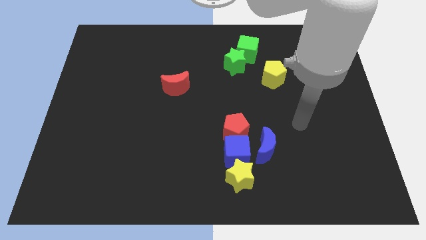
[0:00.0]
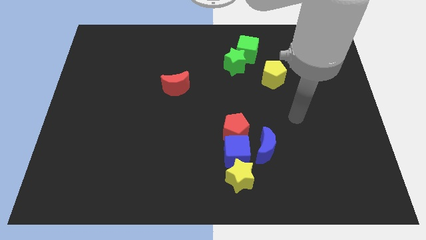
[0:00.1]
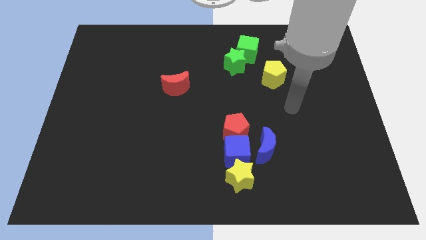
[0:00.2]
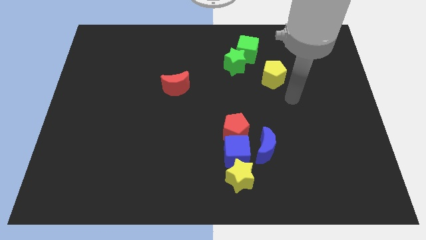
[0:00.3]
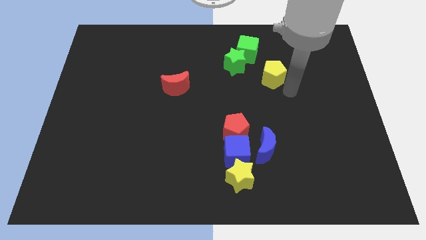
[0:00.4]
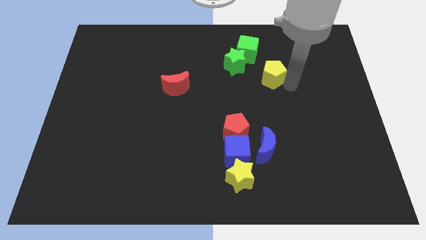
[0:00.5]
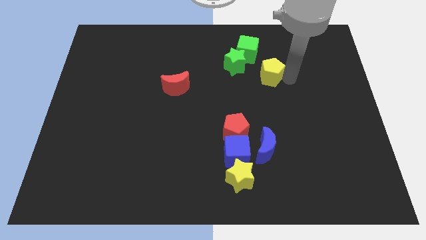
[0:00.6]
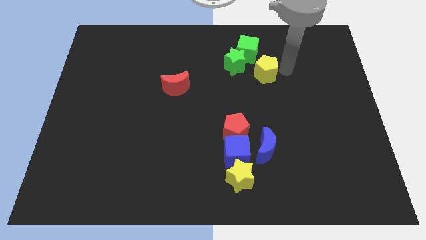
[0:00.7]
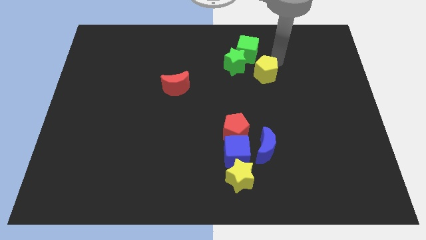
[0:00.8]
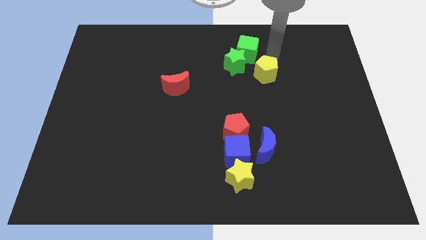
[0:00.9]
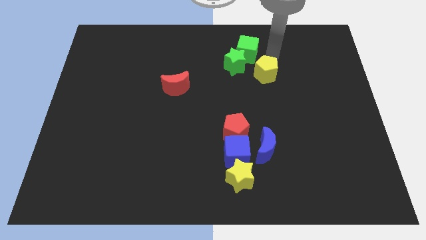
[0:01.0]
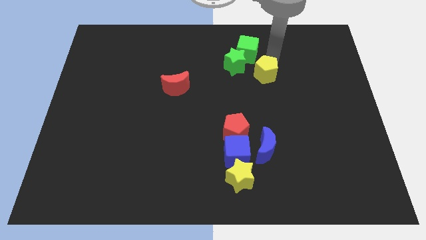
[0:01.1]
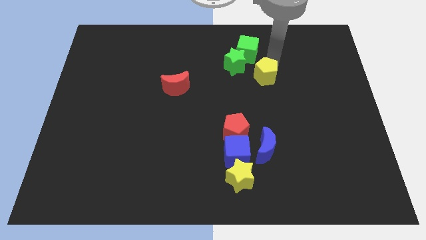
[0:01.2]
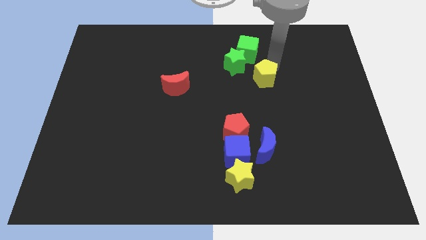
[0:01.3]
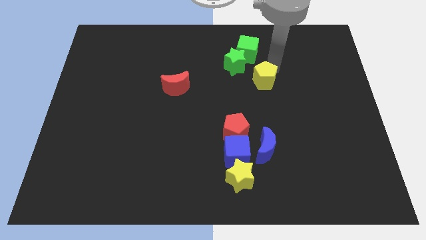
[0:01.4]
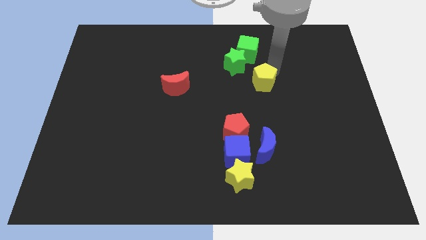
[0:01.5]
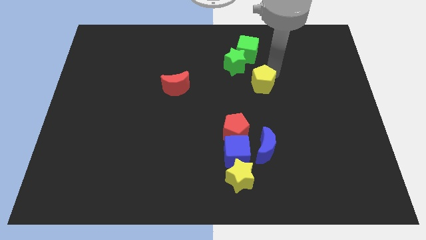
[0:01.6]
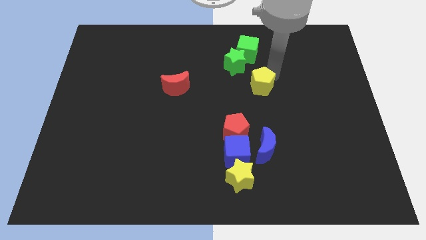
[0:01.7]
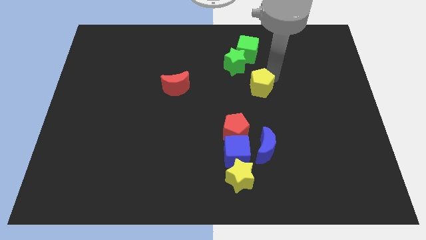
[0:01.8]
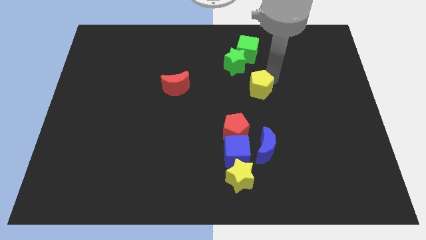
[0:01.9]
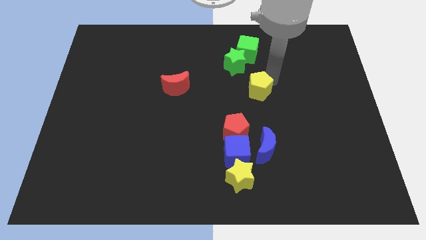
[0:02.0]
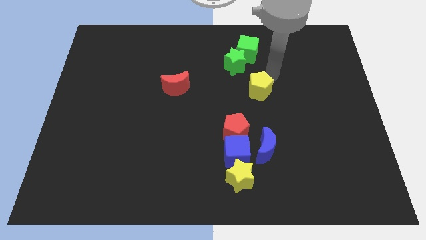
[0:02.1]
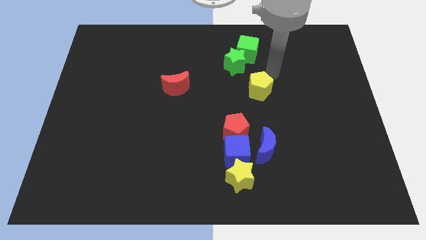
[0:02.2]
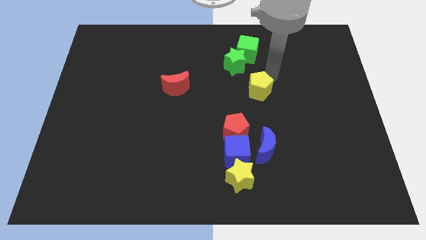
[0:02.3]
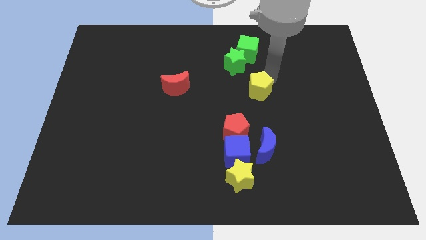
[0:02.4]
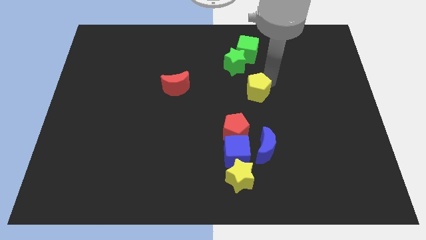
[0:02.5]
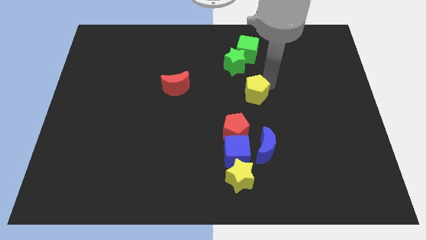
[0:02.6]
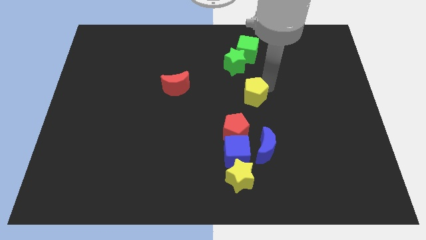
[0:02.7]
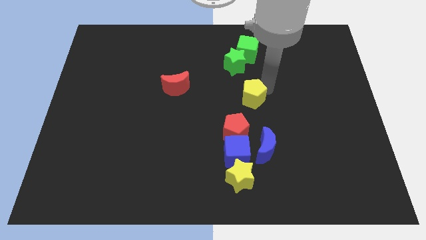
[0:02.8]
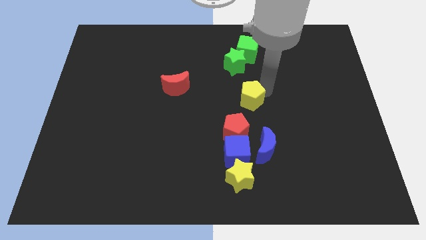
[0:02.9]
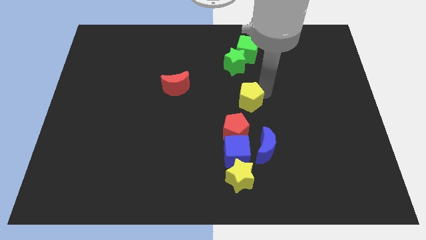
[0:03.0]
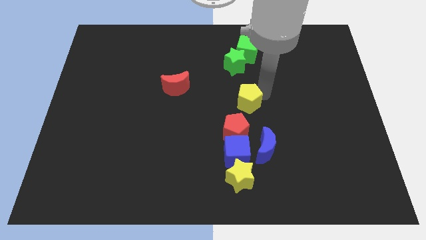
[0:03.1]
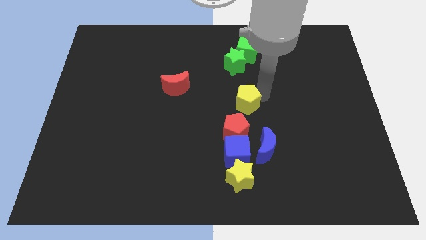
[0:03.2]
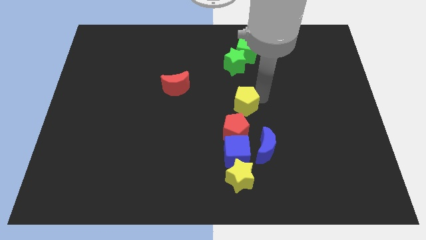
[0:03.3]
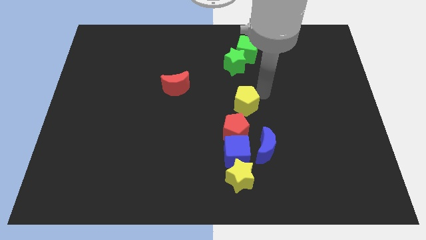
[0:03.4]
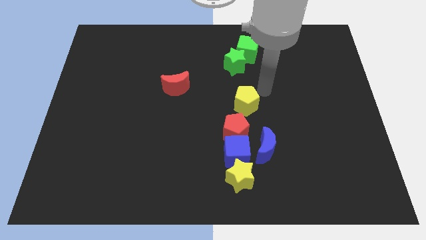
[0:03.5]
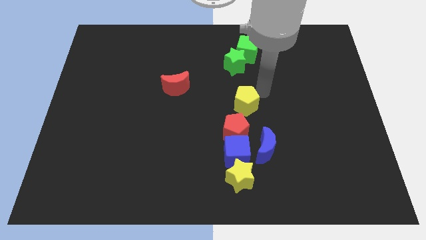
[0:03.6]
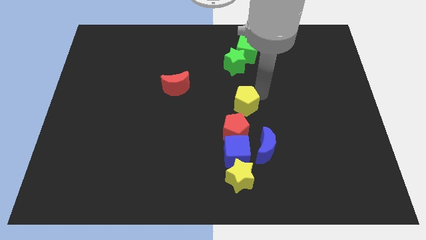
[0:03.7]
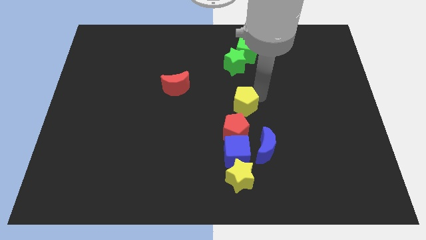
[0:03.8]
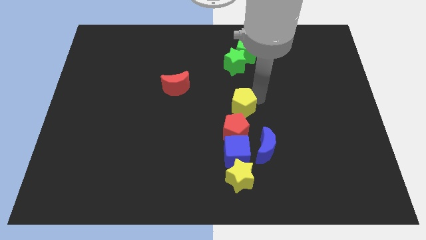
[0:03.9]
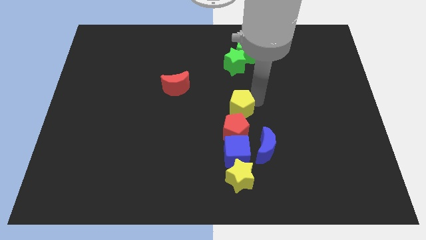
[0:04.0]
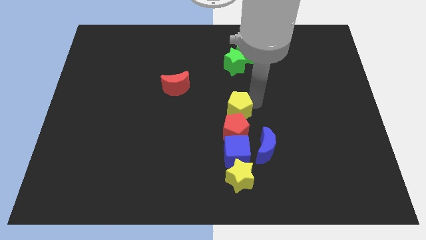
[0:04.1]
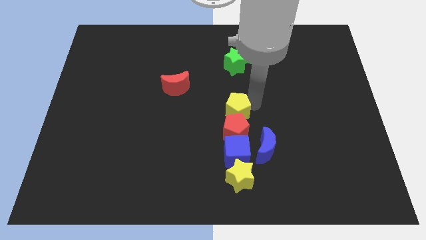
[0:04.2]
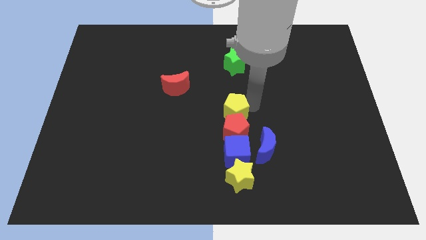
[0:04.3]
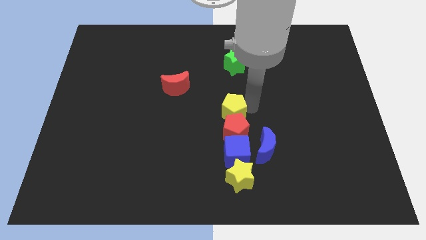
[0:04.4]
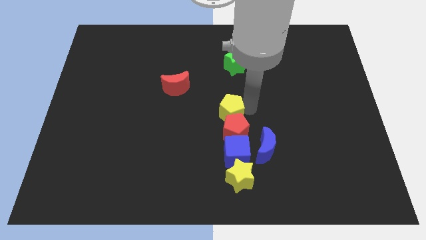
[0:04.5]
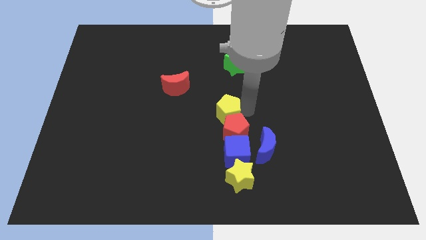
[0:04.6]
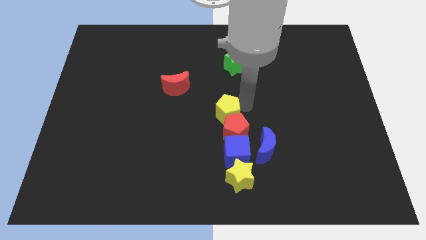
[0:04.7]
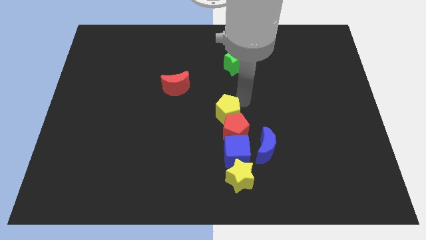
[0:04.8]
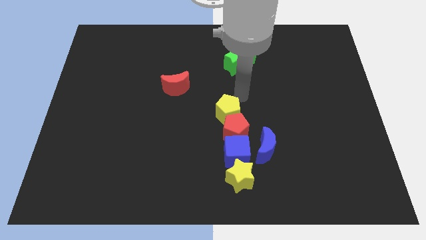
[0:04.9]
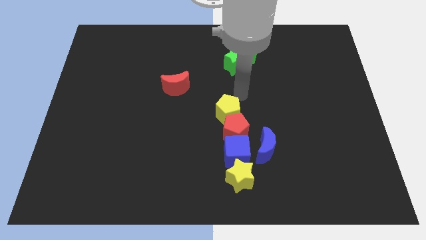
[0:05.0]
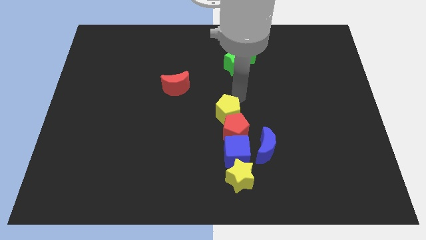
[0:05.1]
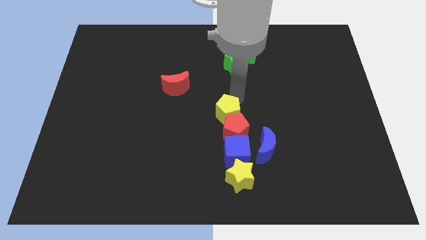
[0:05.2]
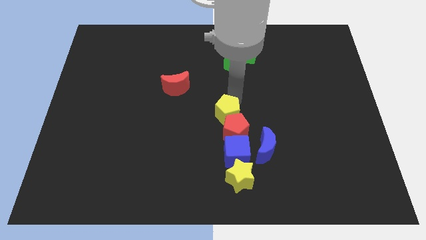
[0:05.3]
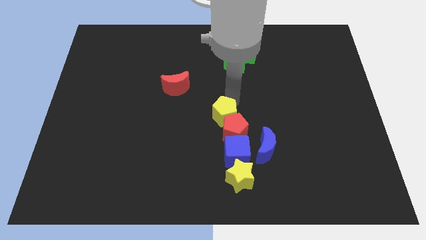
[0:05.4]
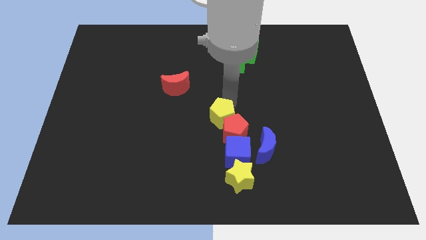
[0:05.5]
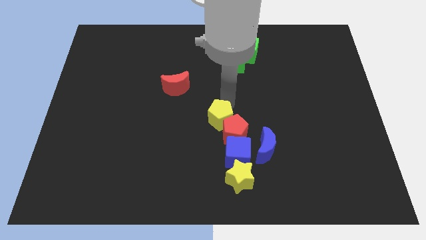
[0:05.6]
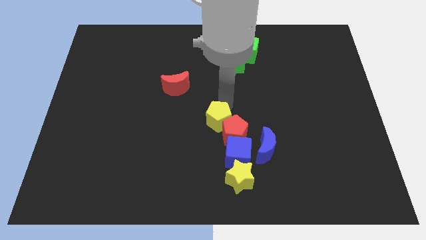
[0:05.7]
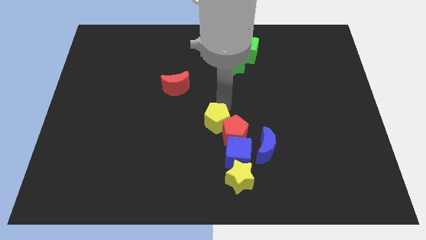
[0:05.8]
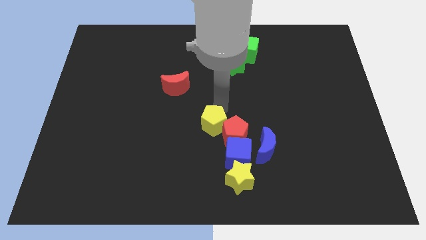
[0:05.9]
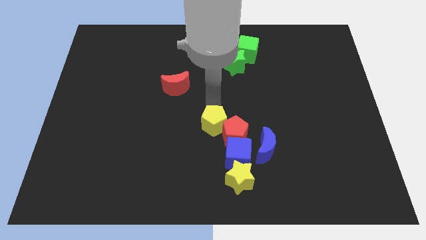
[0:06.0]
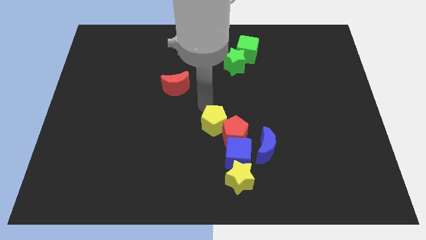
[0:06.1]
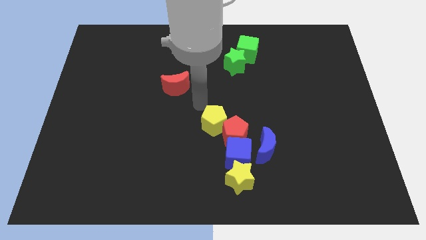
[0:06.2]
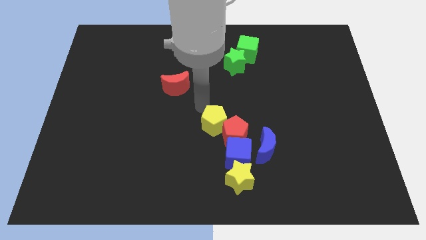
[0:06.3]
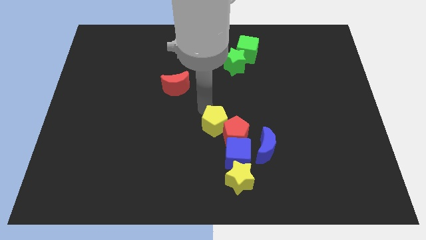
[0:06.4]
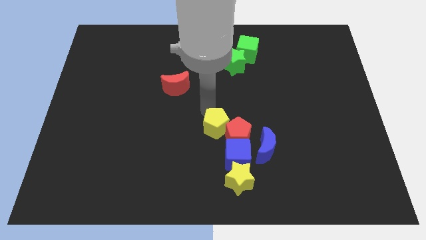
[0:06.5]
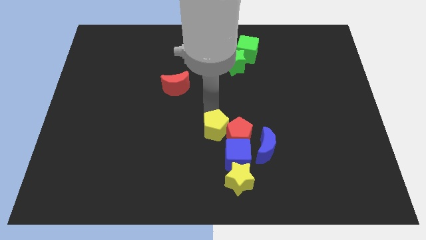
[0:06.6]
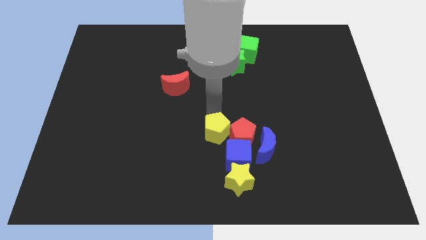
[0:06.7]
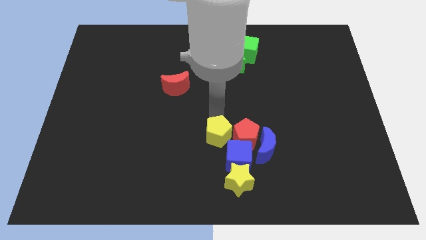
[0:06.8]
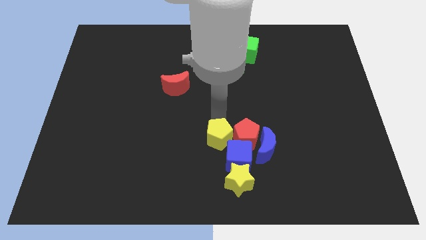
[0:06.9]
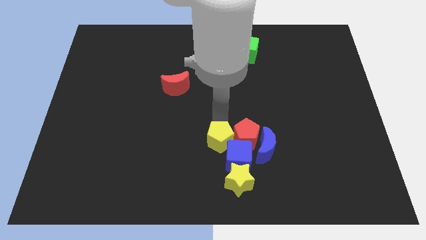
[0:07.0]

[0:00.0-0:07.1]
put the yellow pentagon towards the blue cube

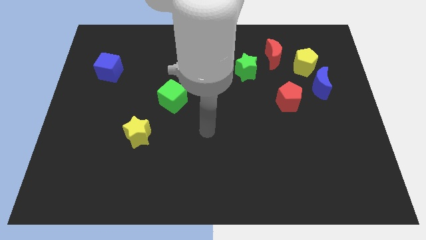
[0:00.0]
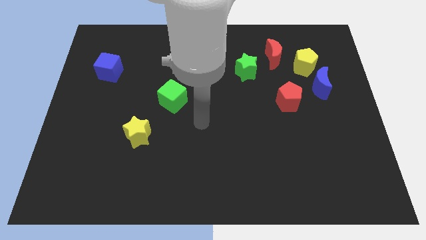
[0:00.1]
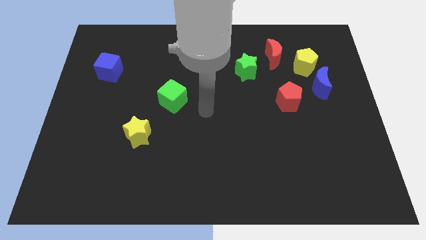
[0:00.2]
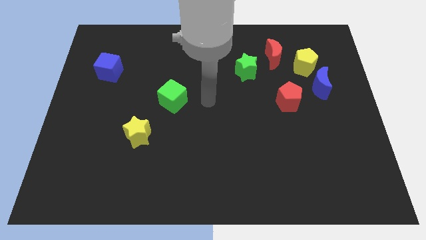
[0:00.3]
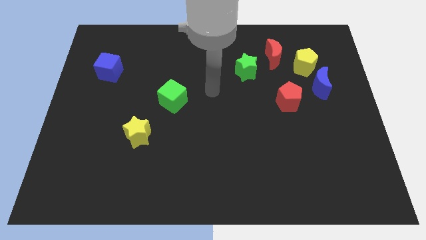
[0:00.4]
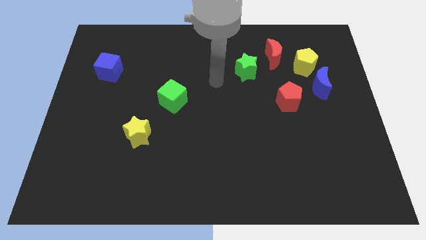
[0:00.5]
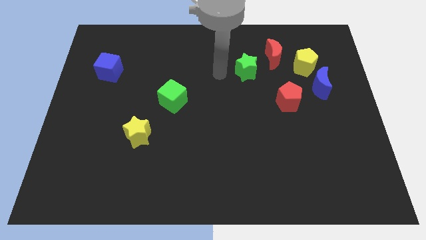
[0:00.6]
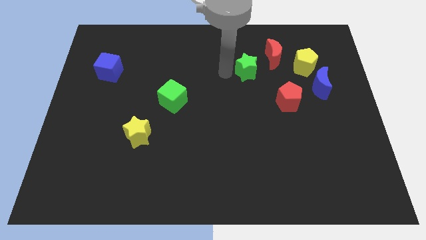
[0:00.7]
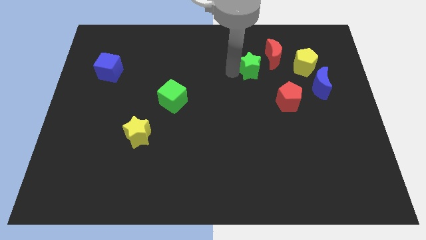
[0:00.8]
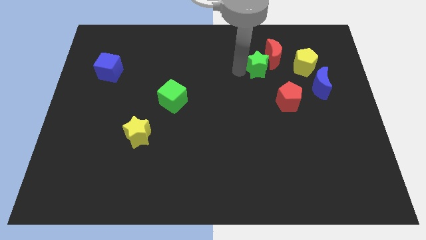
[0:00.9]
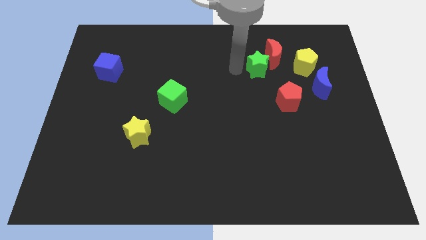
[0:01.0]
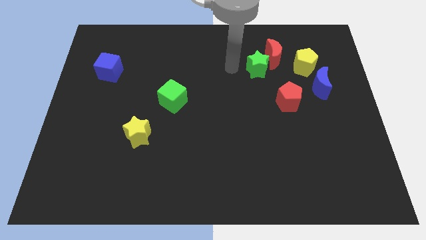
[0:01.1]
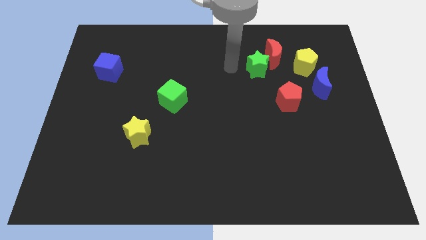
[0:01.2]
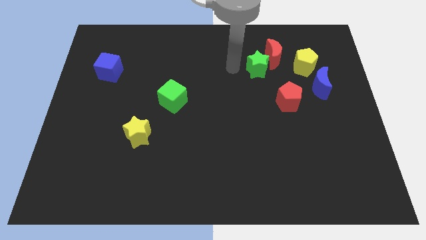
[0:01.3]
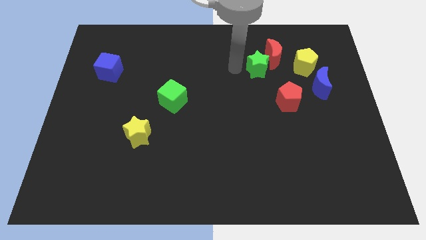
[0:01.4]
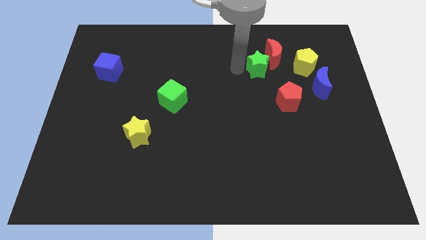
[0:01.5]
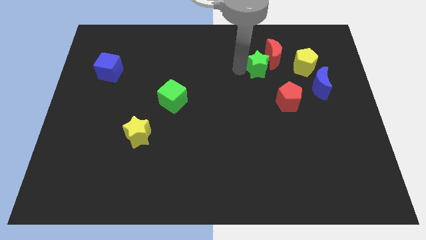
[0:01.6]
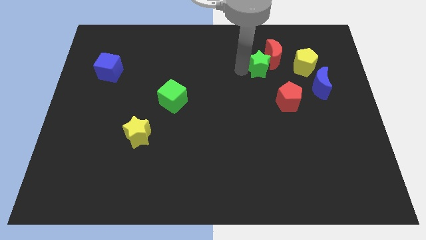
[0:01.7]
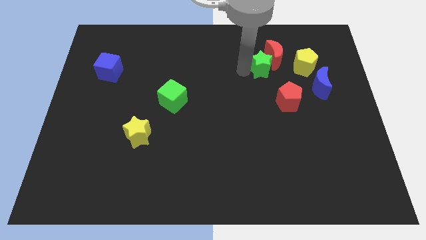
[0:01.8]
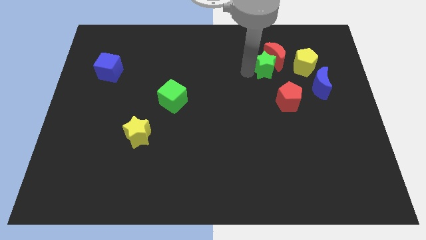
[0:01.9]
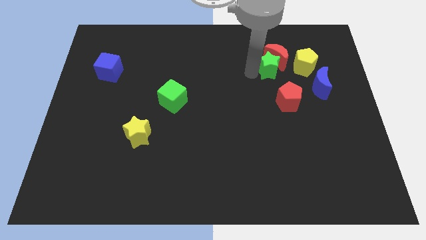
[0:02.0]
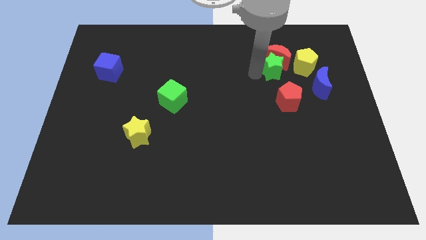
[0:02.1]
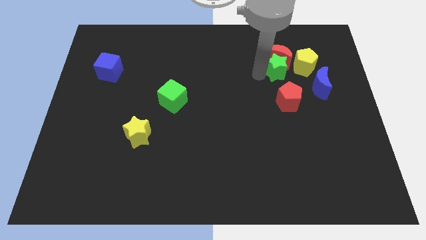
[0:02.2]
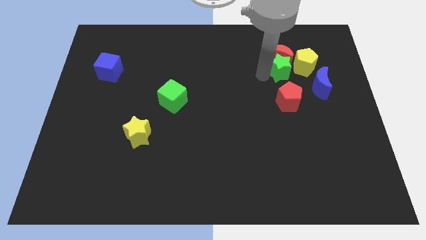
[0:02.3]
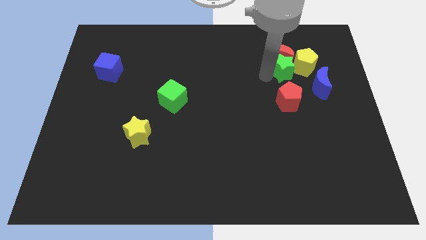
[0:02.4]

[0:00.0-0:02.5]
push the green star towards the yellow pentagon
